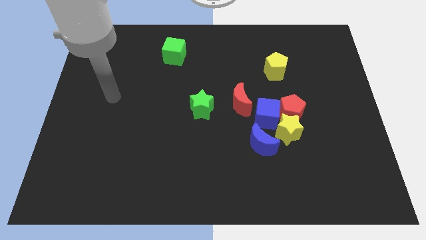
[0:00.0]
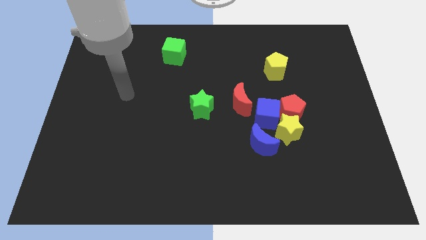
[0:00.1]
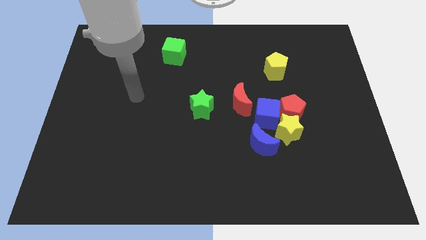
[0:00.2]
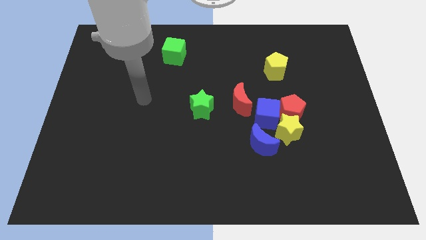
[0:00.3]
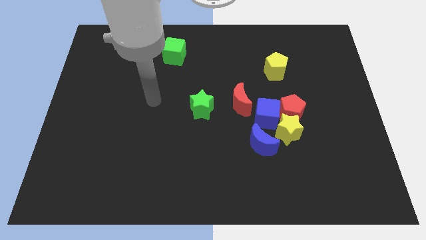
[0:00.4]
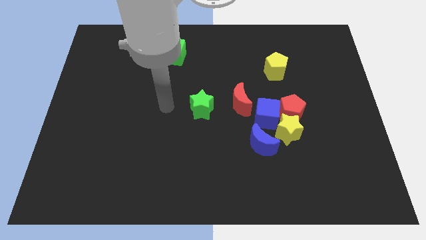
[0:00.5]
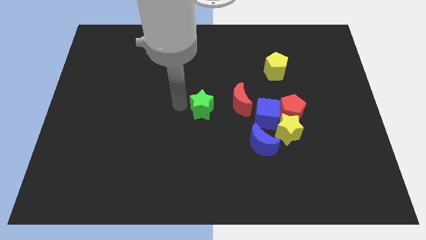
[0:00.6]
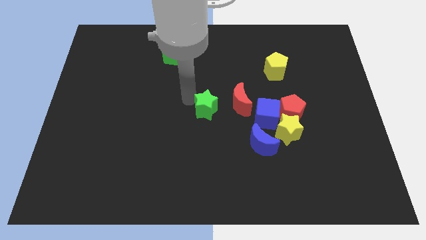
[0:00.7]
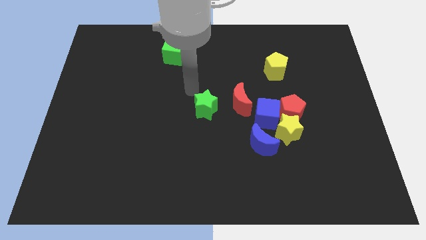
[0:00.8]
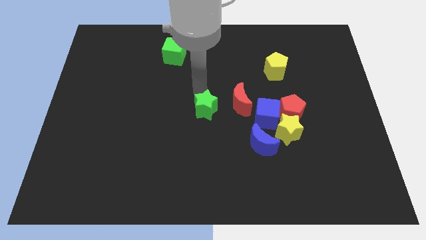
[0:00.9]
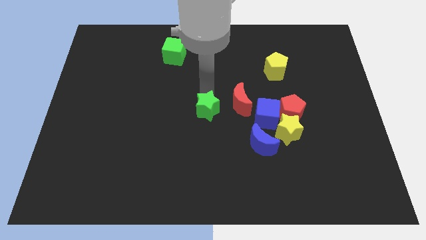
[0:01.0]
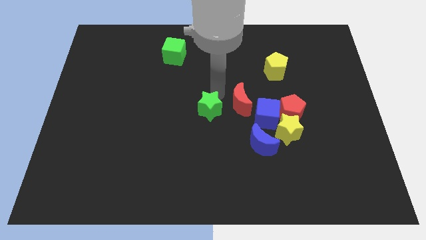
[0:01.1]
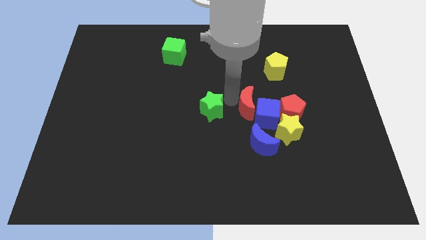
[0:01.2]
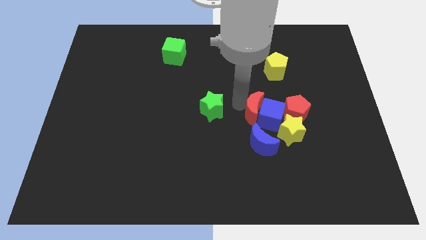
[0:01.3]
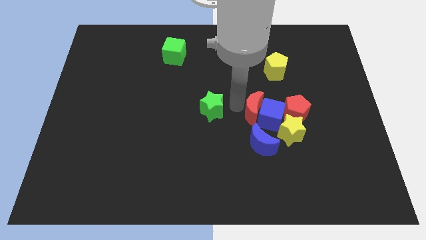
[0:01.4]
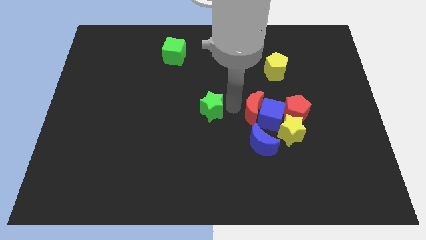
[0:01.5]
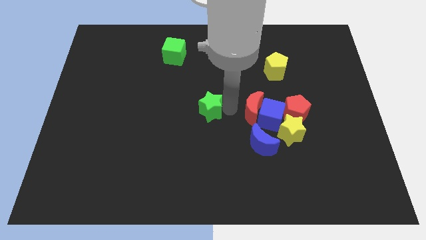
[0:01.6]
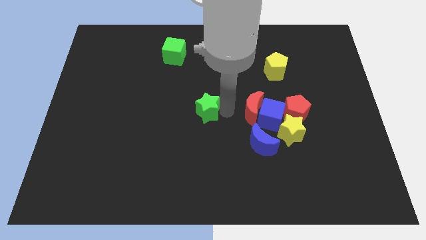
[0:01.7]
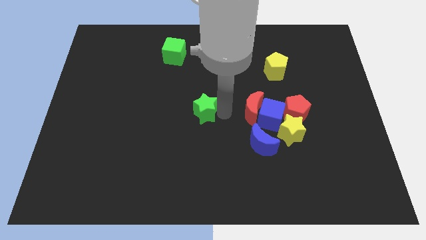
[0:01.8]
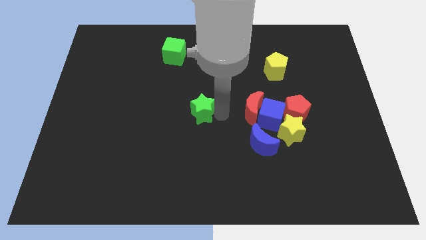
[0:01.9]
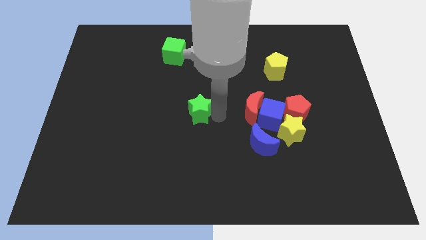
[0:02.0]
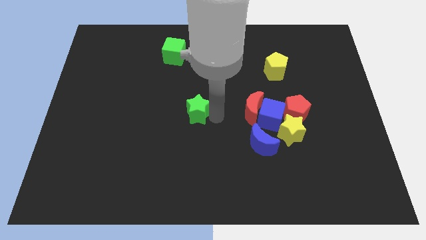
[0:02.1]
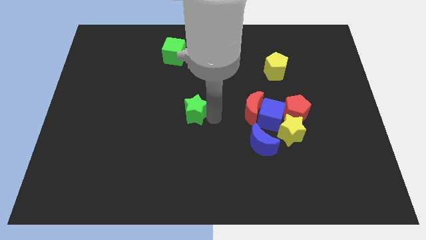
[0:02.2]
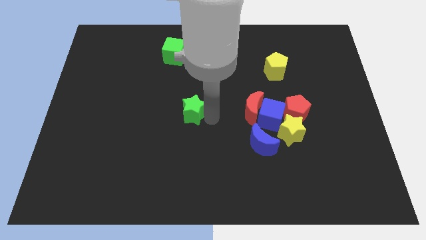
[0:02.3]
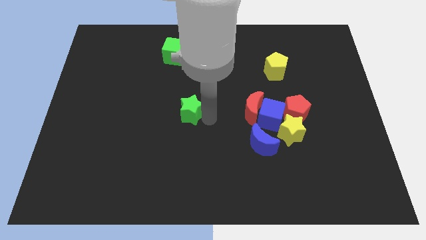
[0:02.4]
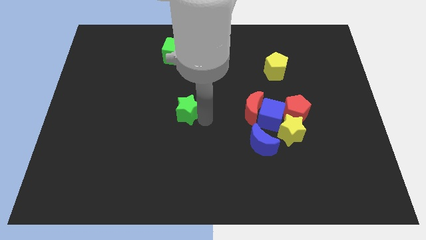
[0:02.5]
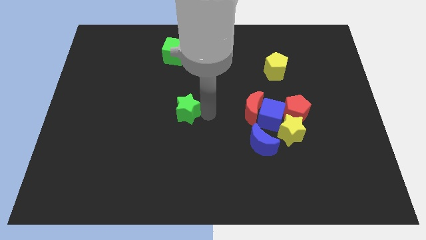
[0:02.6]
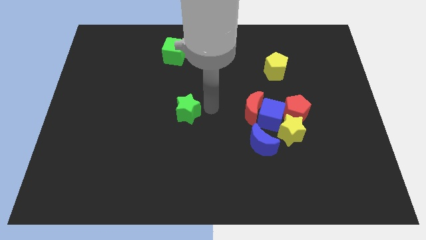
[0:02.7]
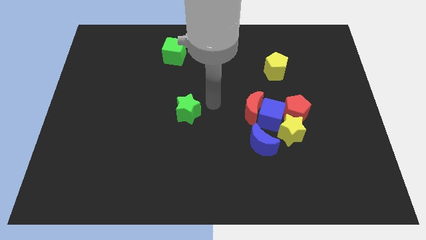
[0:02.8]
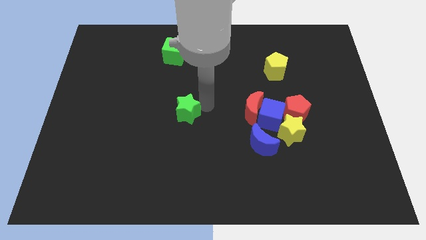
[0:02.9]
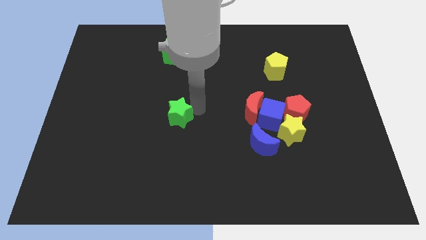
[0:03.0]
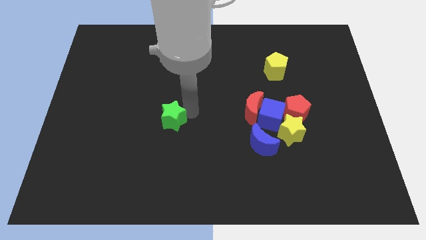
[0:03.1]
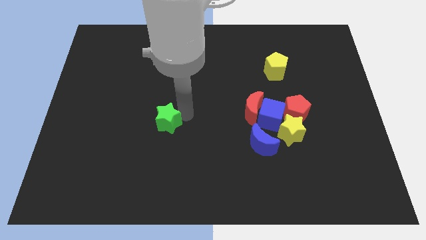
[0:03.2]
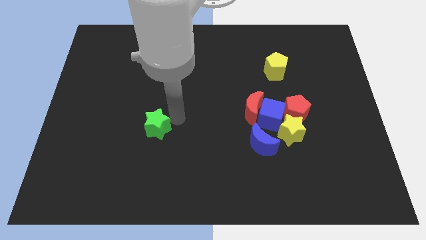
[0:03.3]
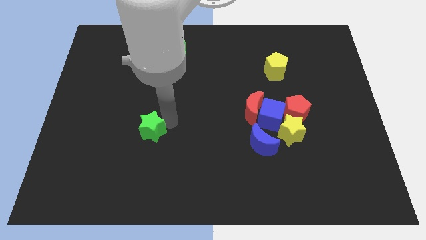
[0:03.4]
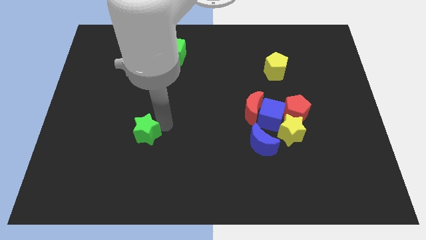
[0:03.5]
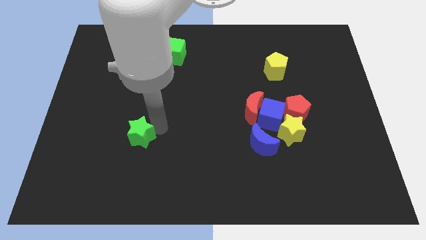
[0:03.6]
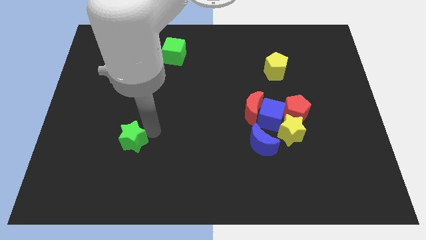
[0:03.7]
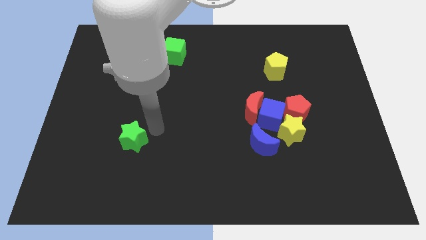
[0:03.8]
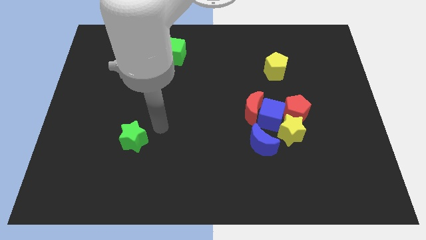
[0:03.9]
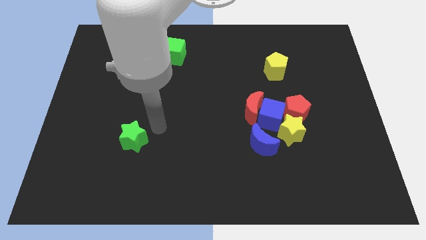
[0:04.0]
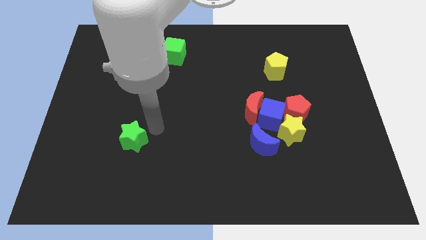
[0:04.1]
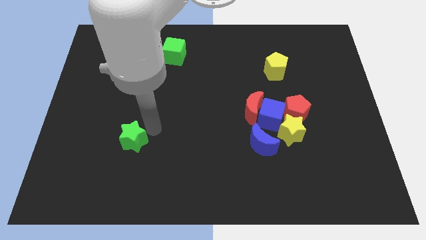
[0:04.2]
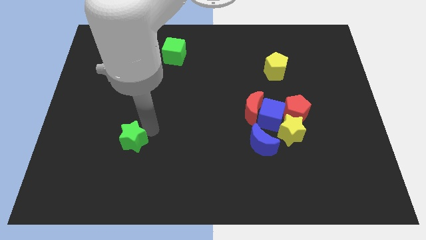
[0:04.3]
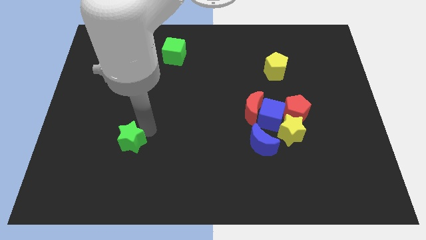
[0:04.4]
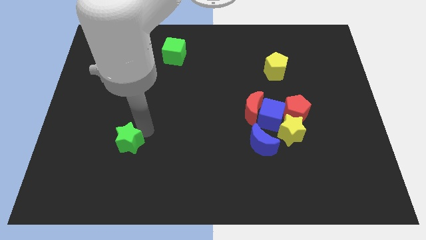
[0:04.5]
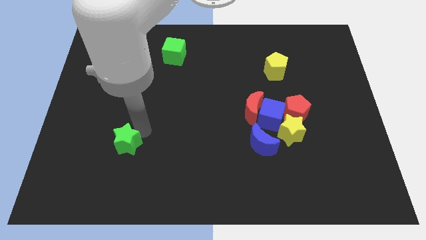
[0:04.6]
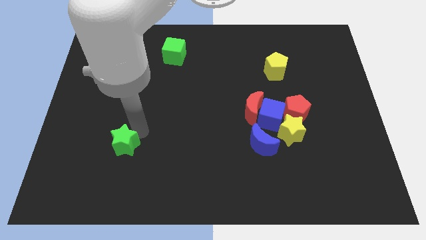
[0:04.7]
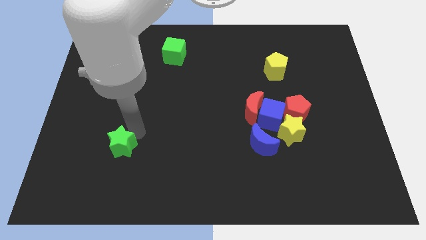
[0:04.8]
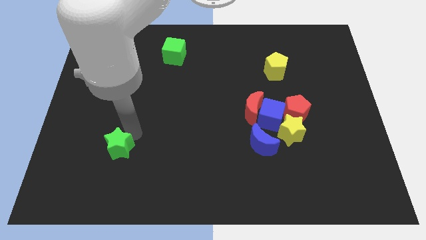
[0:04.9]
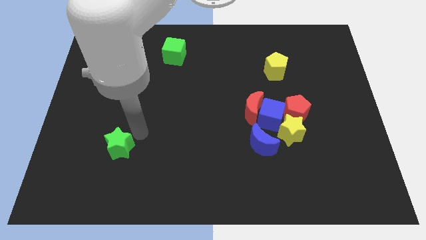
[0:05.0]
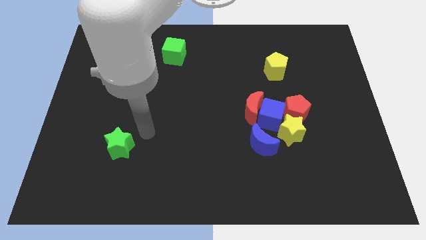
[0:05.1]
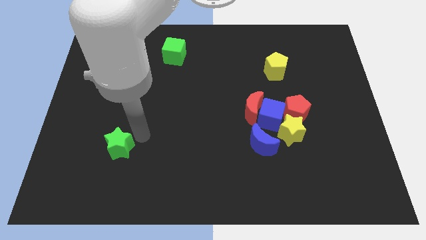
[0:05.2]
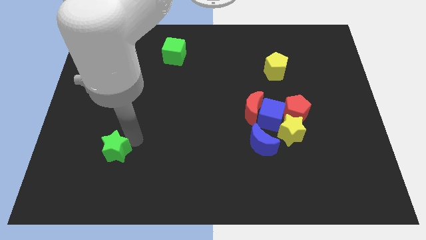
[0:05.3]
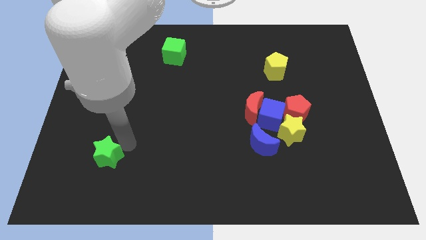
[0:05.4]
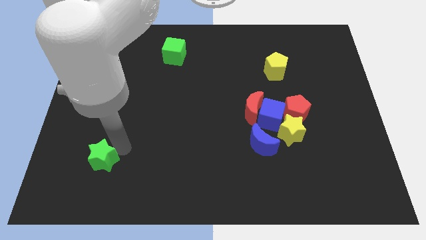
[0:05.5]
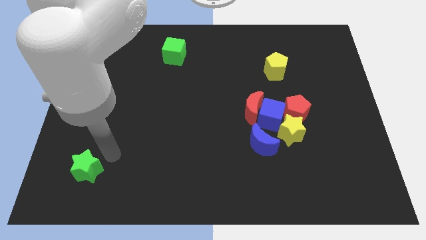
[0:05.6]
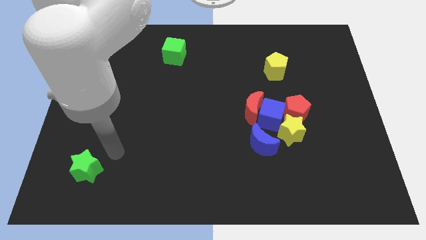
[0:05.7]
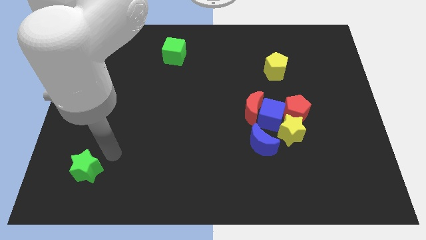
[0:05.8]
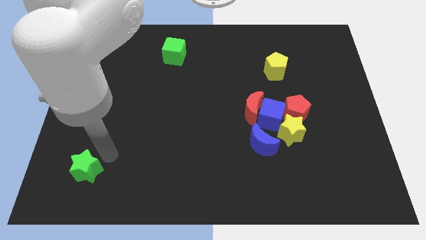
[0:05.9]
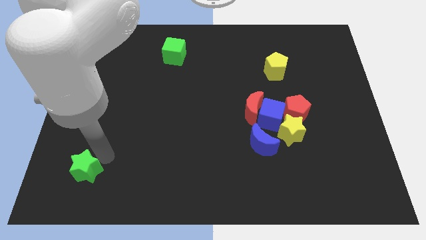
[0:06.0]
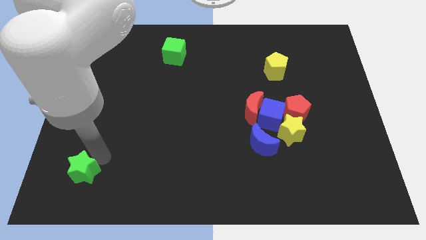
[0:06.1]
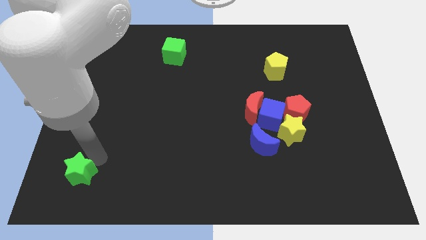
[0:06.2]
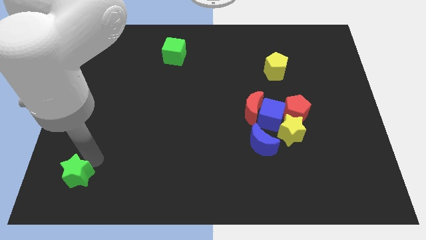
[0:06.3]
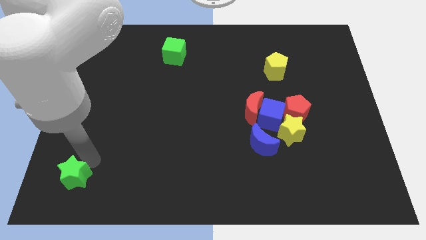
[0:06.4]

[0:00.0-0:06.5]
put the green star to the lower left corner
